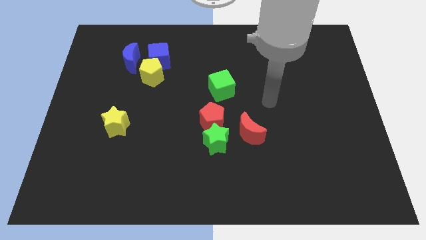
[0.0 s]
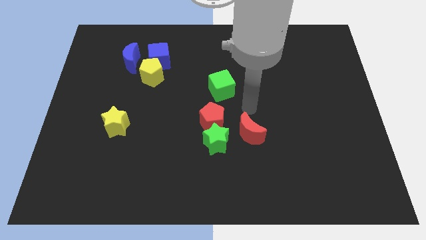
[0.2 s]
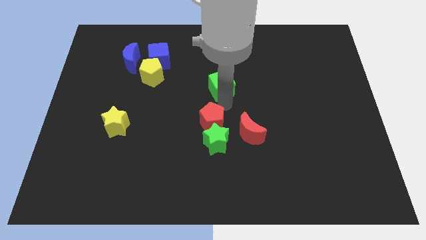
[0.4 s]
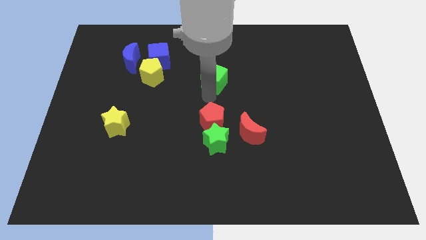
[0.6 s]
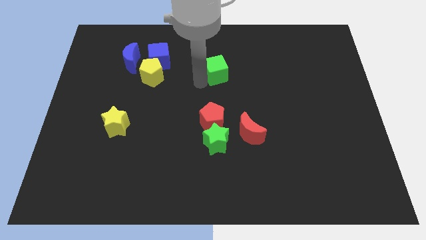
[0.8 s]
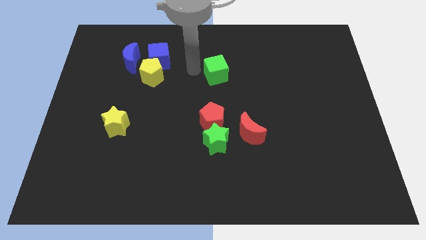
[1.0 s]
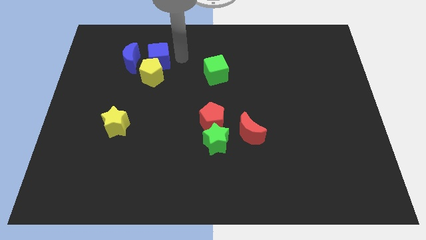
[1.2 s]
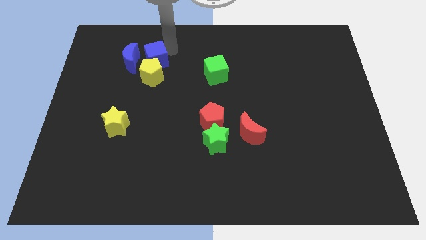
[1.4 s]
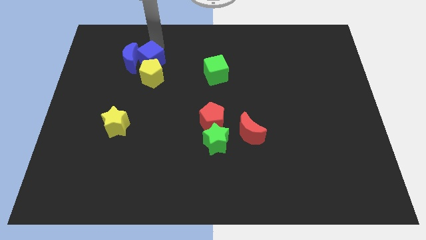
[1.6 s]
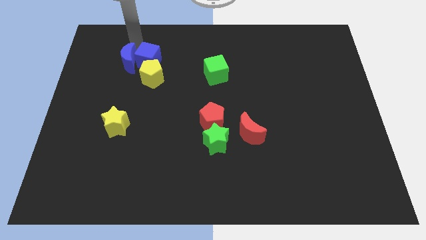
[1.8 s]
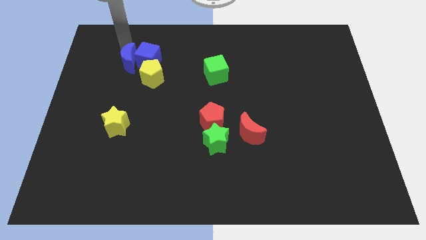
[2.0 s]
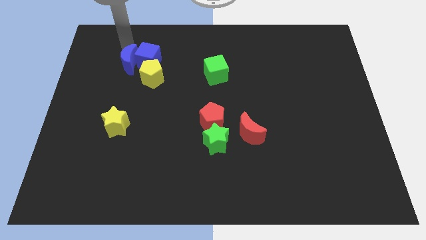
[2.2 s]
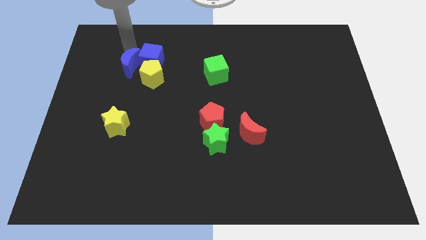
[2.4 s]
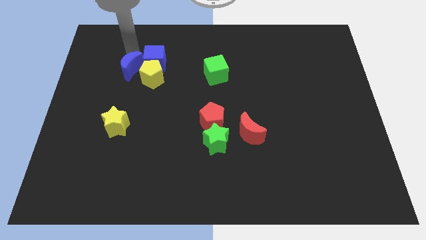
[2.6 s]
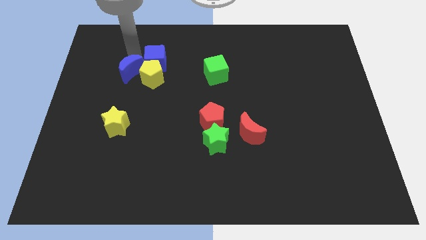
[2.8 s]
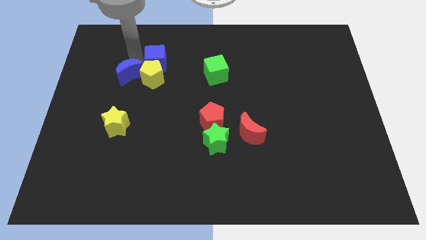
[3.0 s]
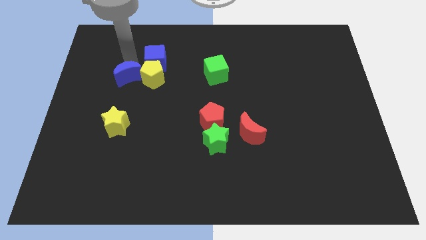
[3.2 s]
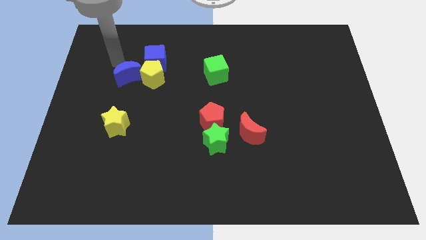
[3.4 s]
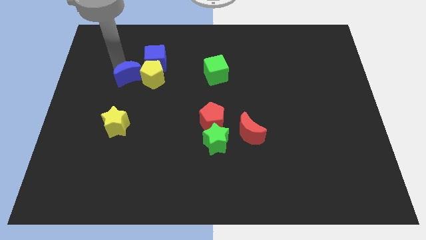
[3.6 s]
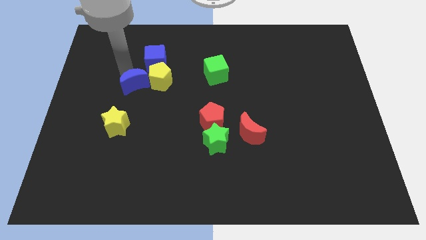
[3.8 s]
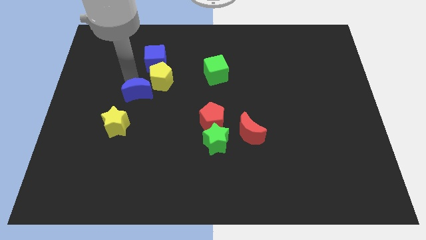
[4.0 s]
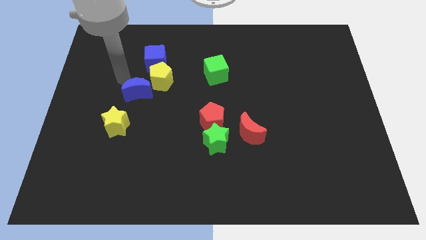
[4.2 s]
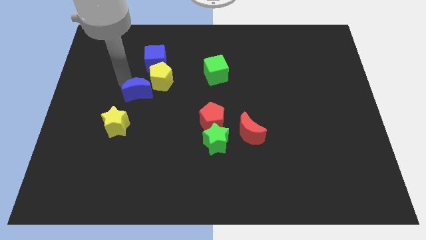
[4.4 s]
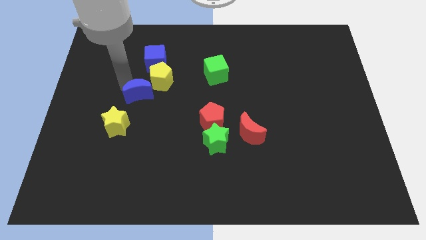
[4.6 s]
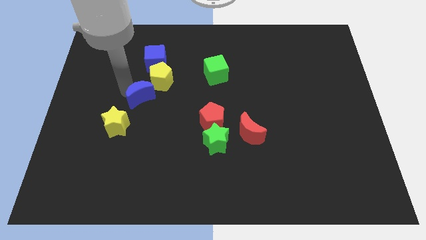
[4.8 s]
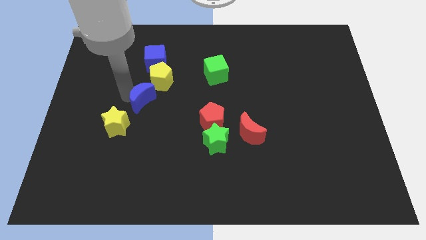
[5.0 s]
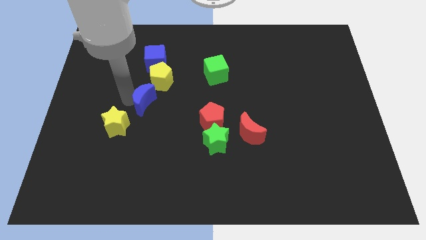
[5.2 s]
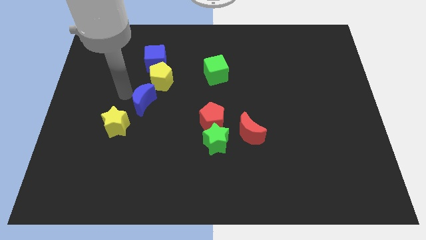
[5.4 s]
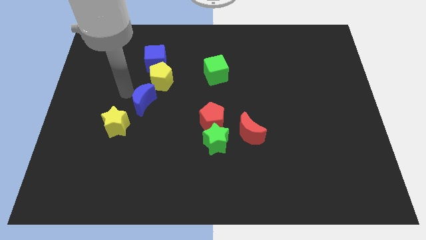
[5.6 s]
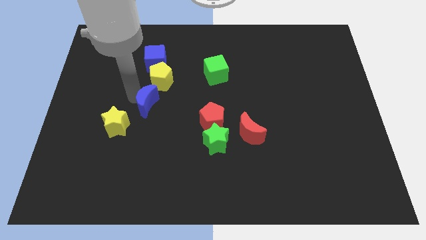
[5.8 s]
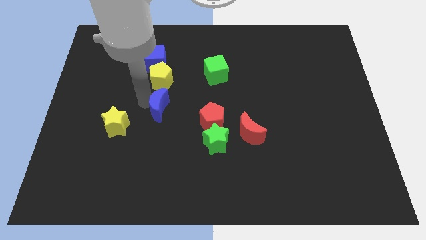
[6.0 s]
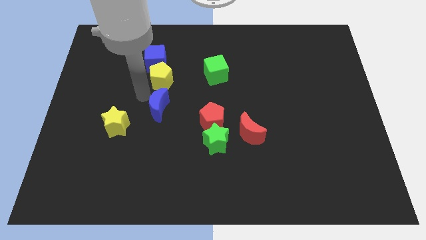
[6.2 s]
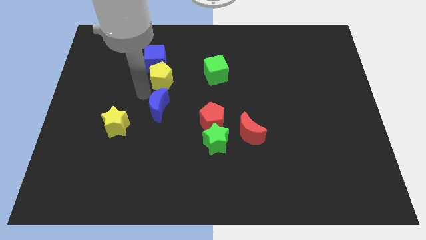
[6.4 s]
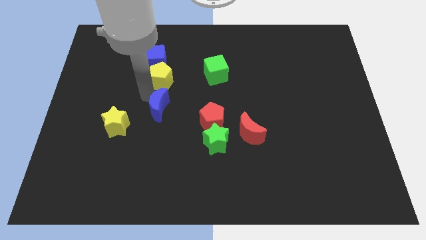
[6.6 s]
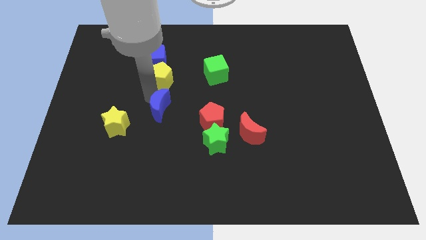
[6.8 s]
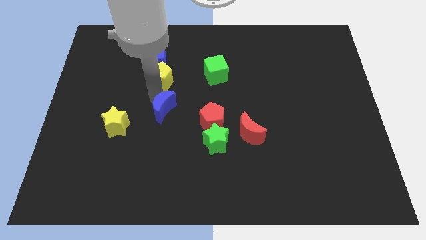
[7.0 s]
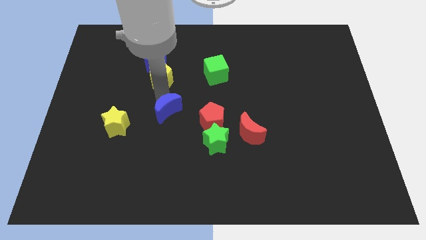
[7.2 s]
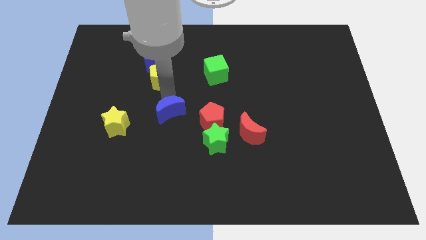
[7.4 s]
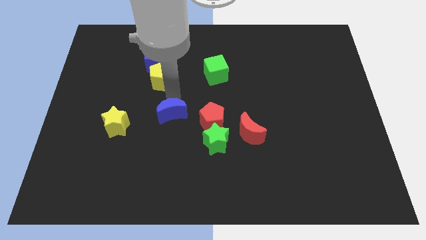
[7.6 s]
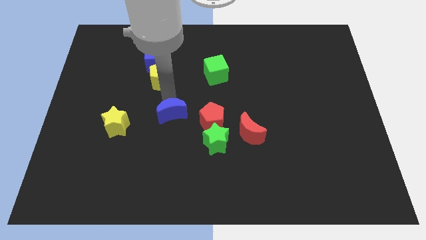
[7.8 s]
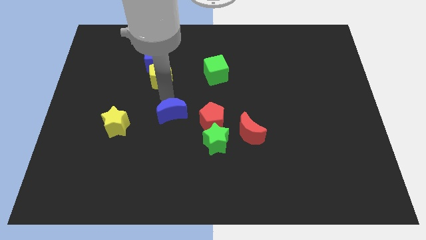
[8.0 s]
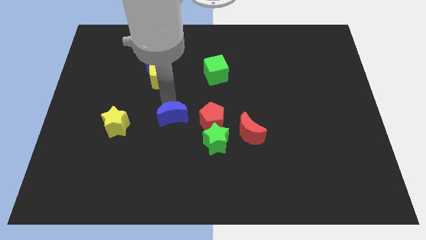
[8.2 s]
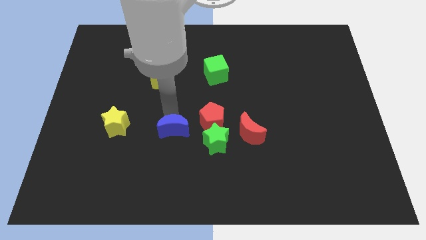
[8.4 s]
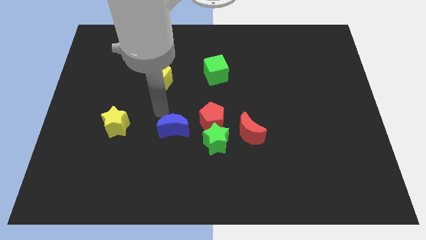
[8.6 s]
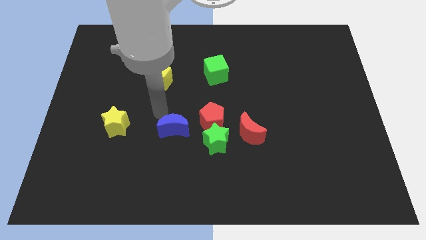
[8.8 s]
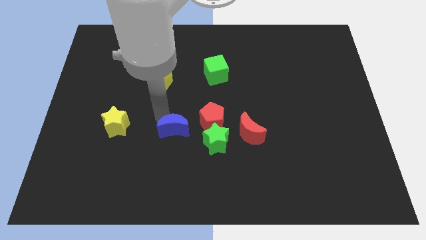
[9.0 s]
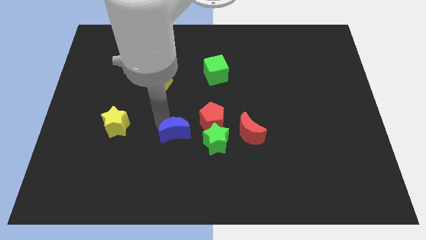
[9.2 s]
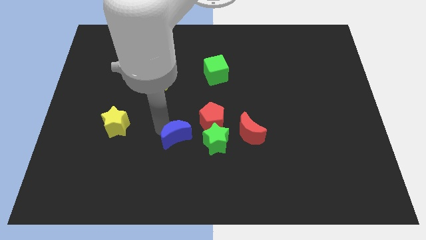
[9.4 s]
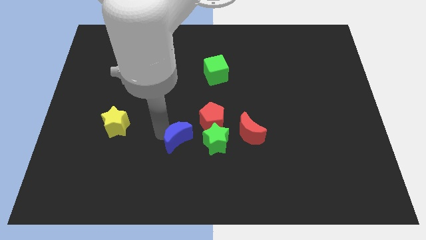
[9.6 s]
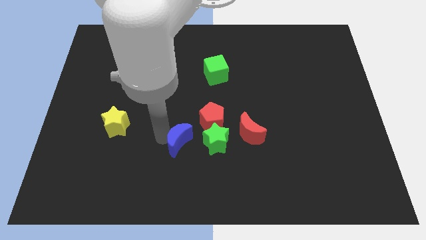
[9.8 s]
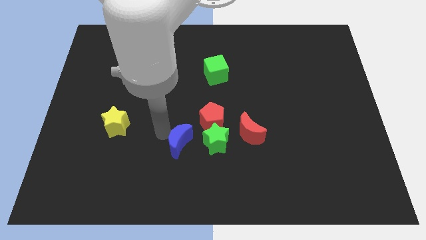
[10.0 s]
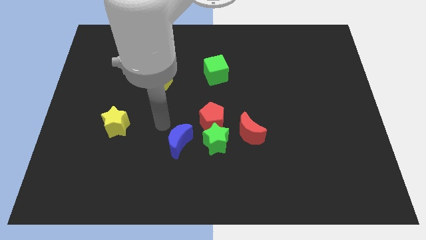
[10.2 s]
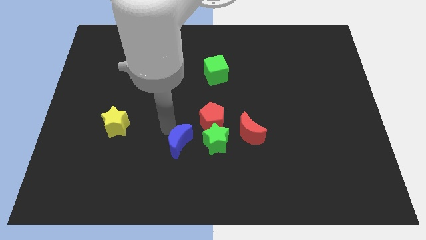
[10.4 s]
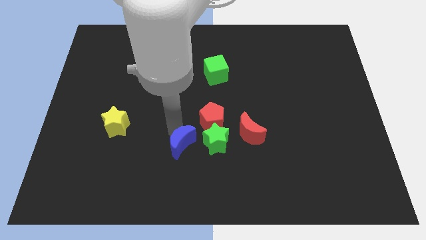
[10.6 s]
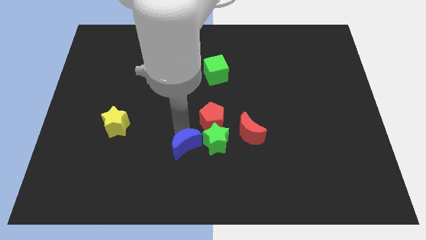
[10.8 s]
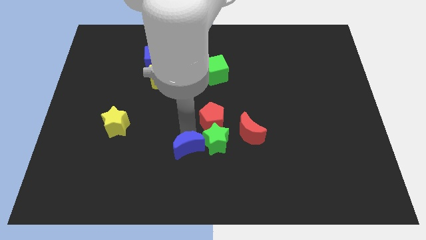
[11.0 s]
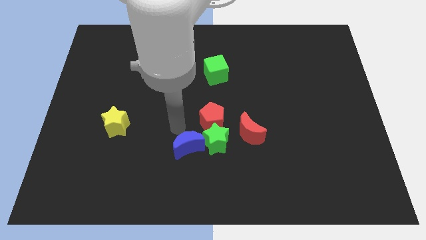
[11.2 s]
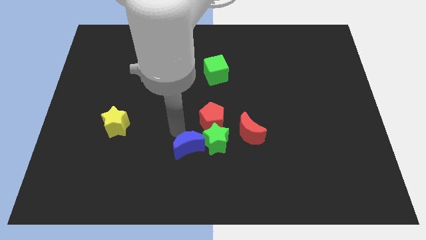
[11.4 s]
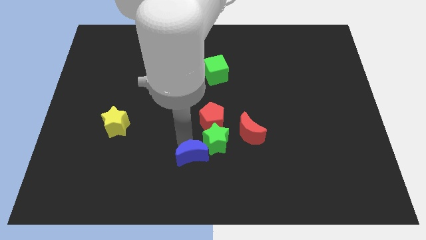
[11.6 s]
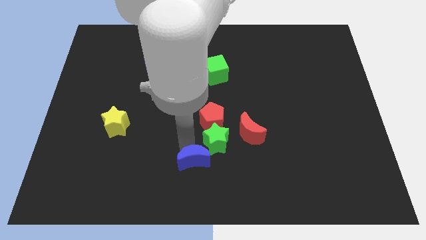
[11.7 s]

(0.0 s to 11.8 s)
slide the blue moon to the bottom side
